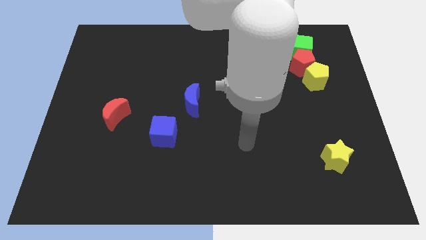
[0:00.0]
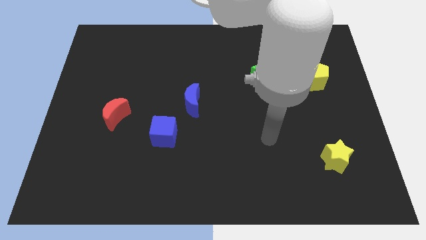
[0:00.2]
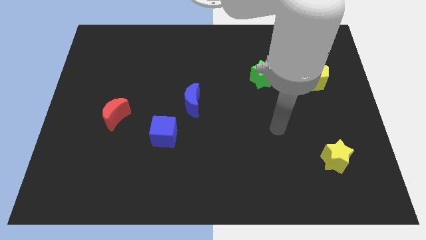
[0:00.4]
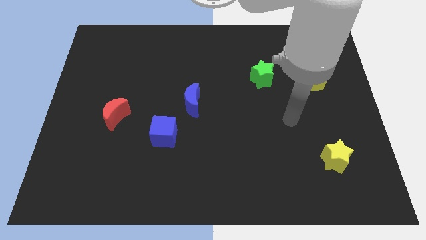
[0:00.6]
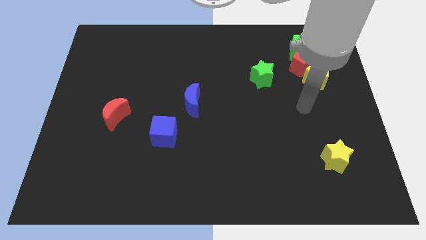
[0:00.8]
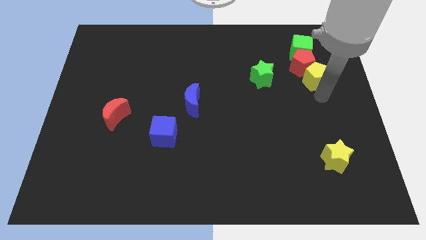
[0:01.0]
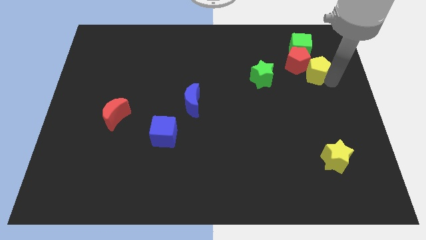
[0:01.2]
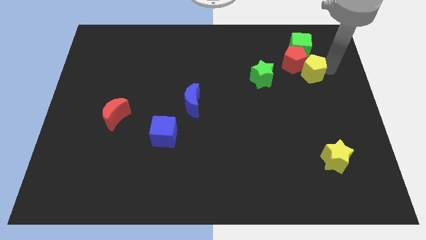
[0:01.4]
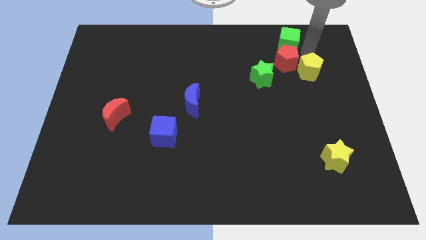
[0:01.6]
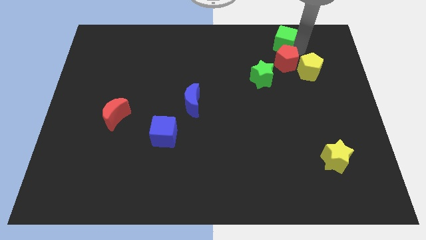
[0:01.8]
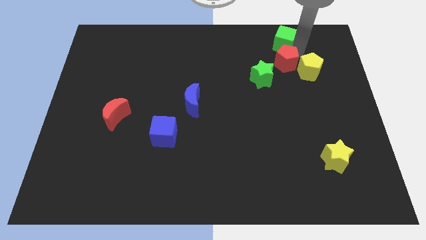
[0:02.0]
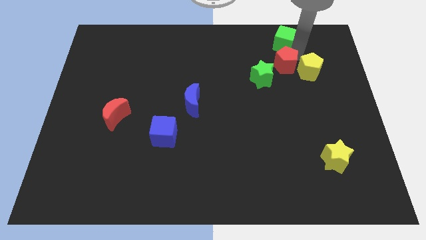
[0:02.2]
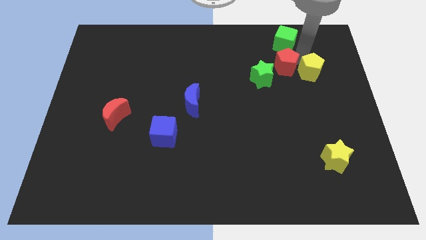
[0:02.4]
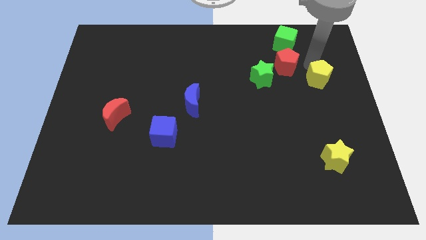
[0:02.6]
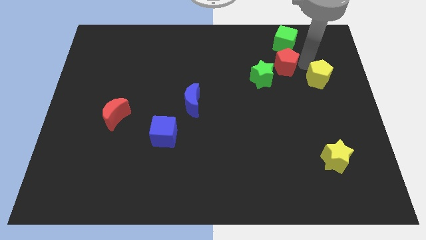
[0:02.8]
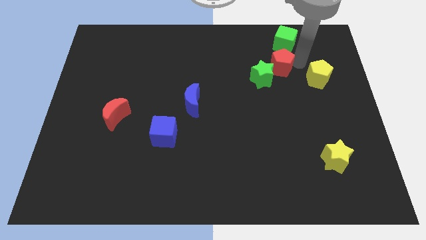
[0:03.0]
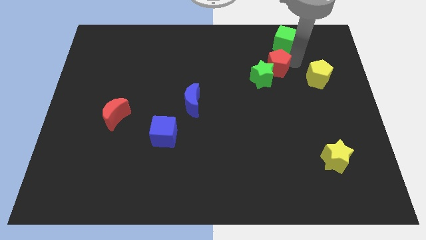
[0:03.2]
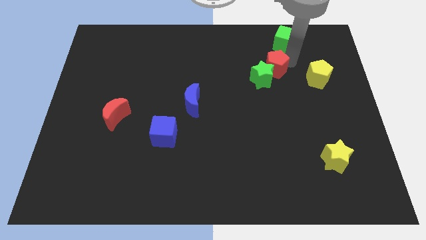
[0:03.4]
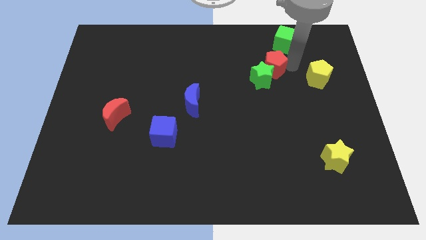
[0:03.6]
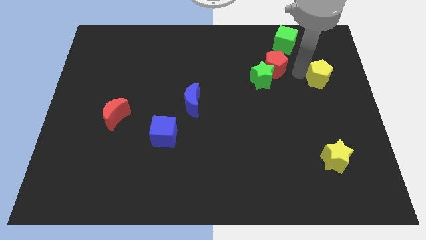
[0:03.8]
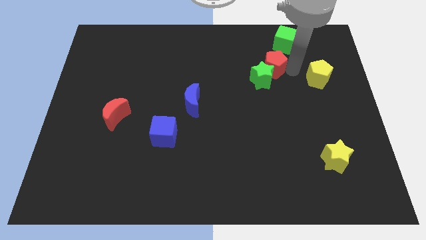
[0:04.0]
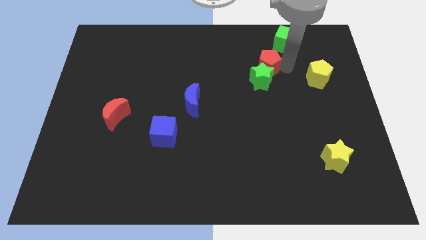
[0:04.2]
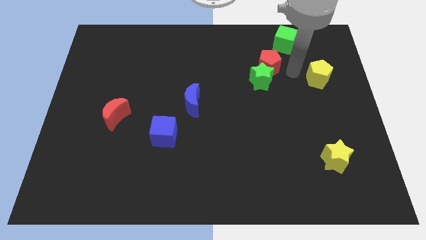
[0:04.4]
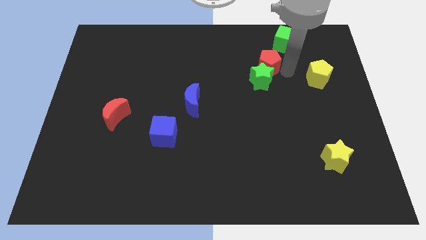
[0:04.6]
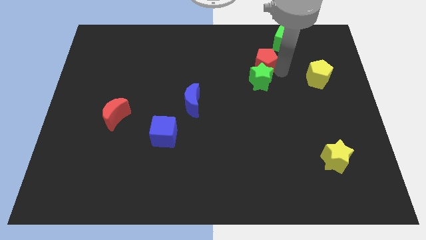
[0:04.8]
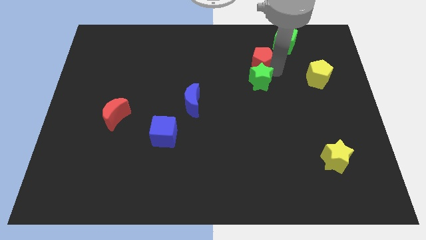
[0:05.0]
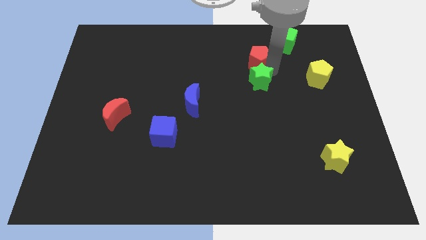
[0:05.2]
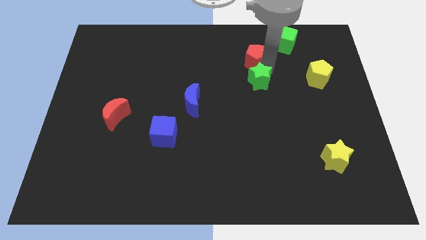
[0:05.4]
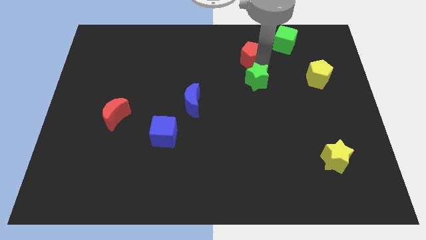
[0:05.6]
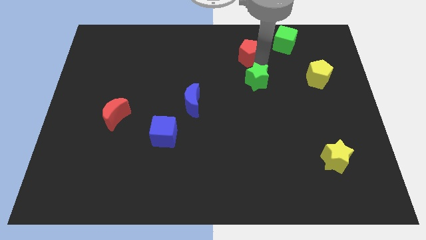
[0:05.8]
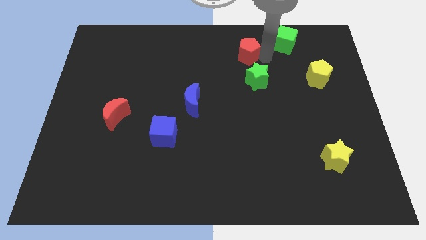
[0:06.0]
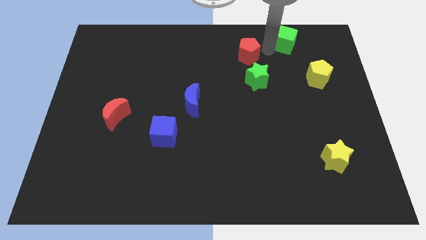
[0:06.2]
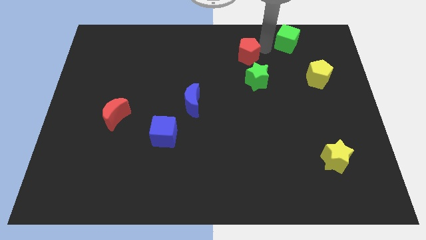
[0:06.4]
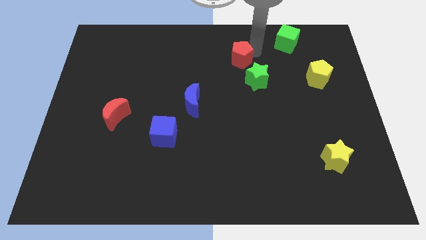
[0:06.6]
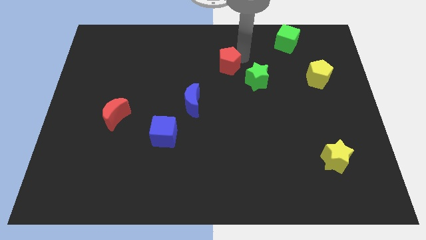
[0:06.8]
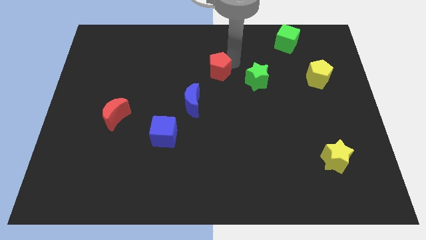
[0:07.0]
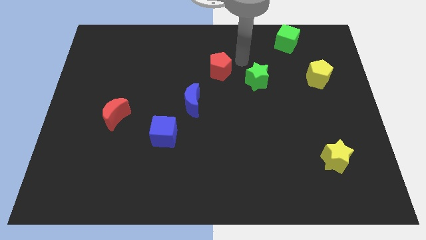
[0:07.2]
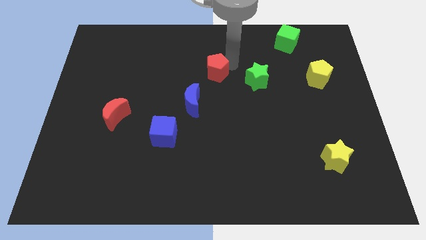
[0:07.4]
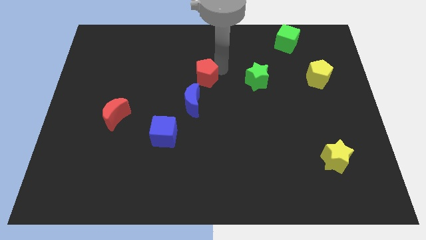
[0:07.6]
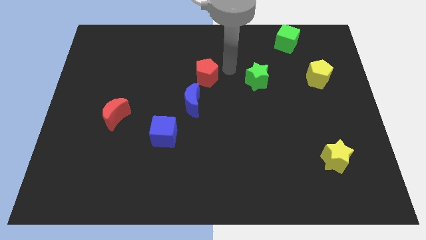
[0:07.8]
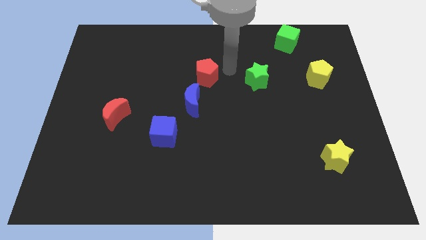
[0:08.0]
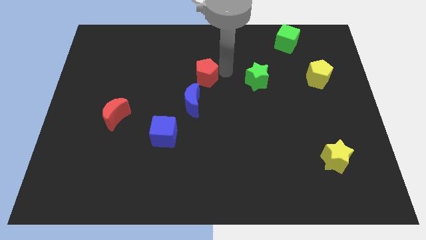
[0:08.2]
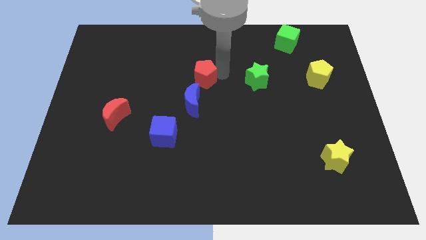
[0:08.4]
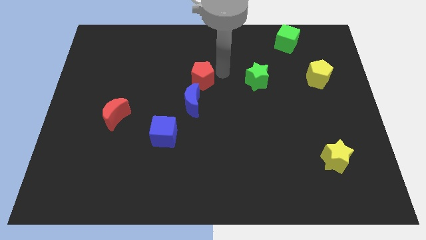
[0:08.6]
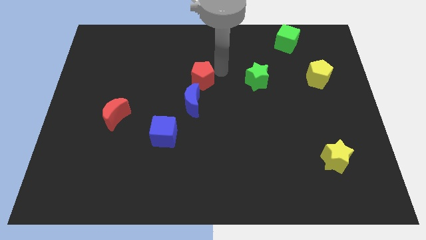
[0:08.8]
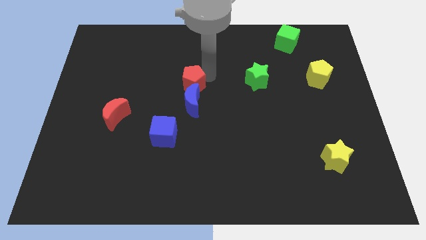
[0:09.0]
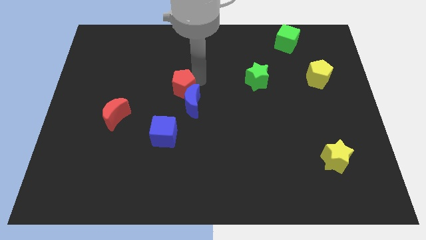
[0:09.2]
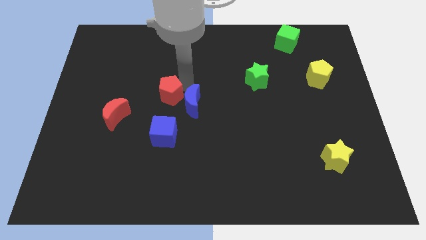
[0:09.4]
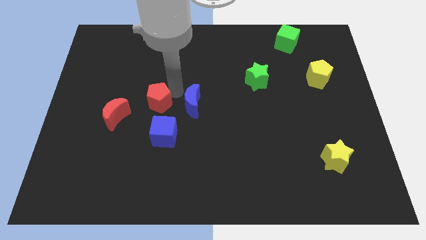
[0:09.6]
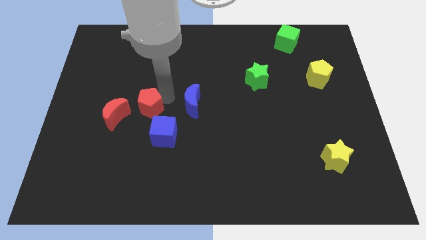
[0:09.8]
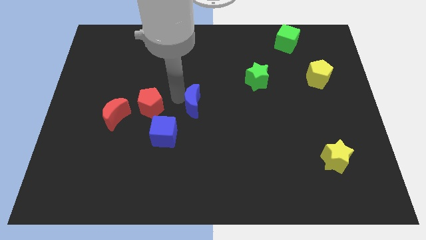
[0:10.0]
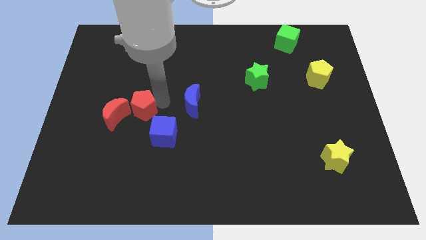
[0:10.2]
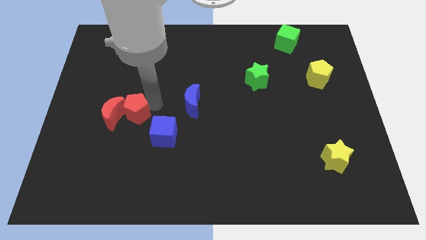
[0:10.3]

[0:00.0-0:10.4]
move the red pentagon close to the red moon

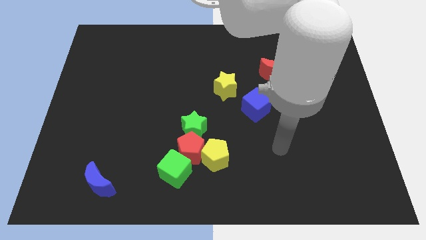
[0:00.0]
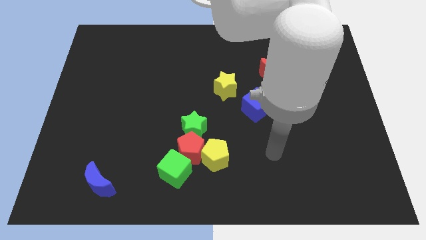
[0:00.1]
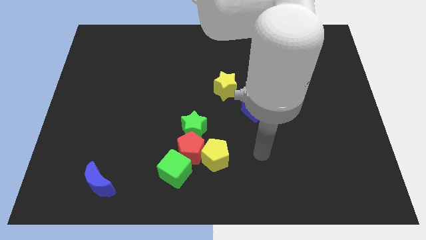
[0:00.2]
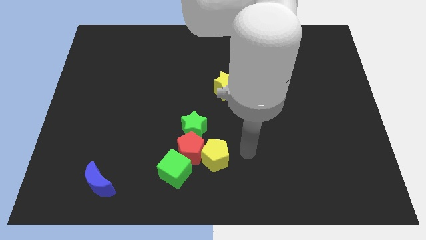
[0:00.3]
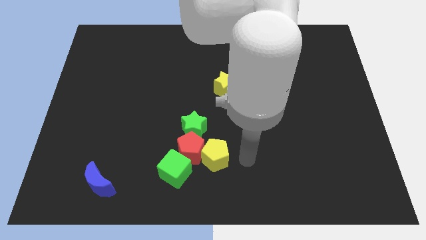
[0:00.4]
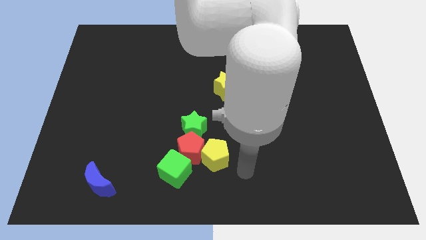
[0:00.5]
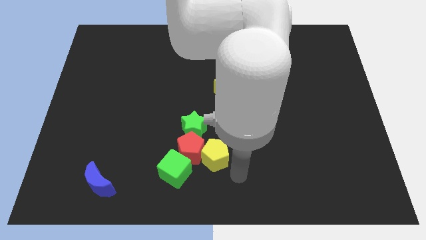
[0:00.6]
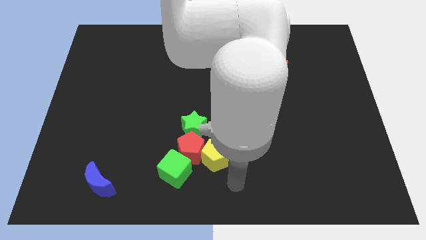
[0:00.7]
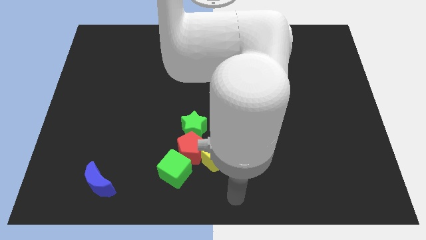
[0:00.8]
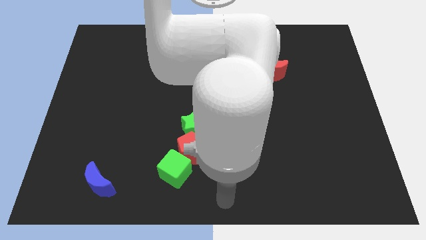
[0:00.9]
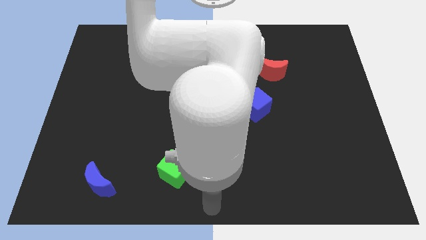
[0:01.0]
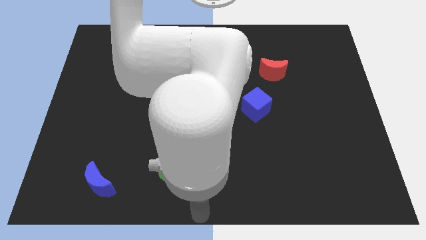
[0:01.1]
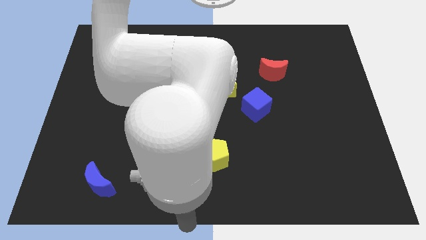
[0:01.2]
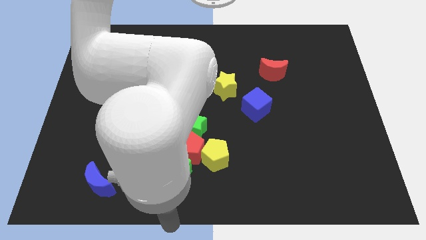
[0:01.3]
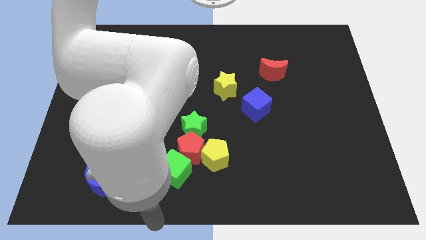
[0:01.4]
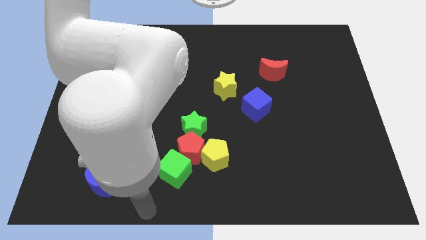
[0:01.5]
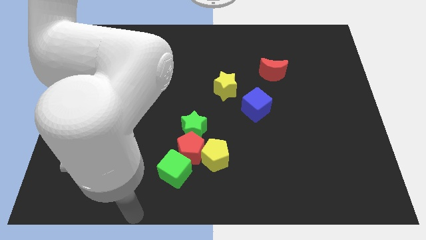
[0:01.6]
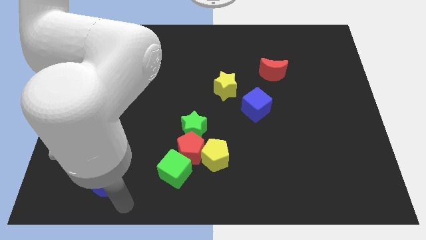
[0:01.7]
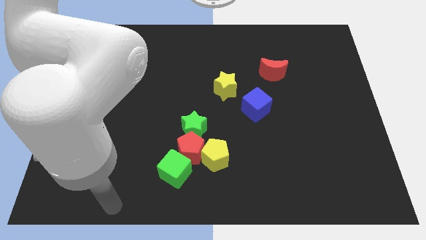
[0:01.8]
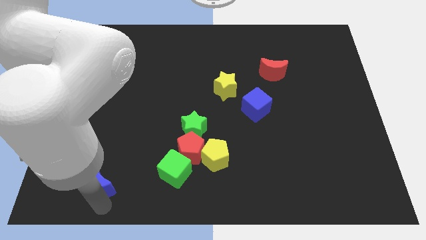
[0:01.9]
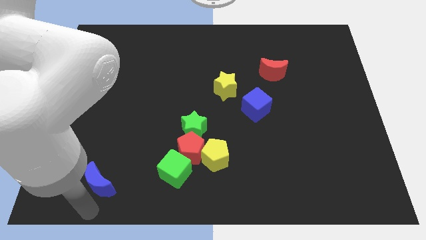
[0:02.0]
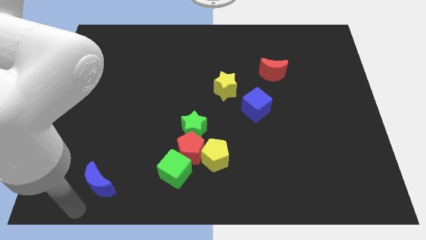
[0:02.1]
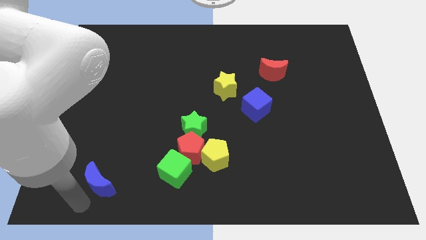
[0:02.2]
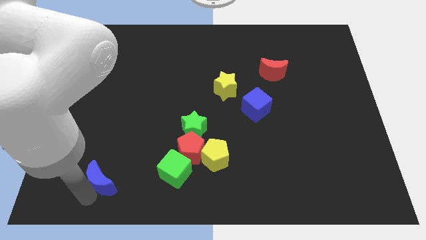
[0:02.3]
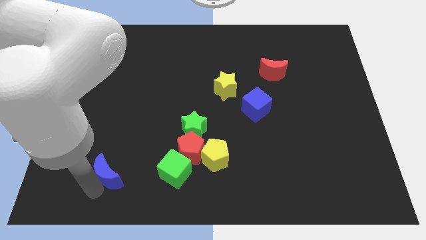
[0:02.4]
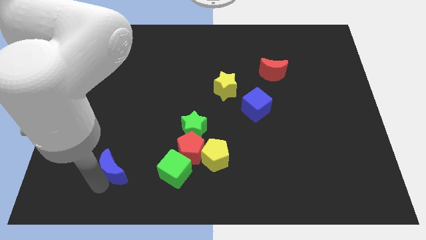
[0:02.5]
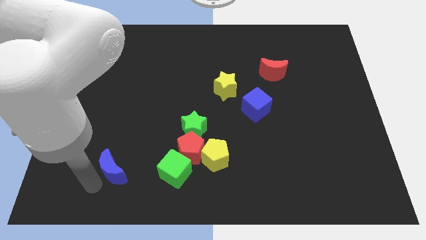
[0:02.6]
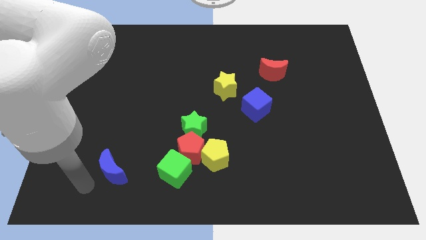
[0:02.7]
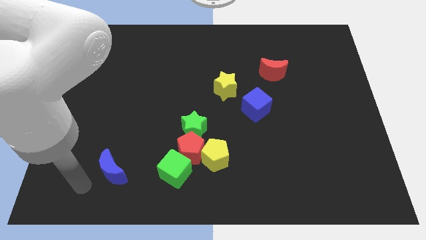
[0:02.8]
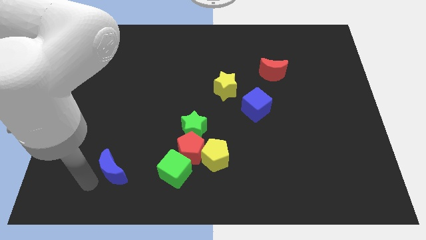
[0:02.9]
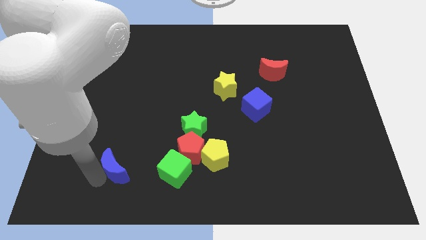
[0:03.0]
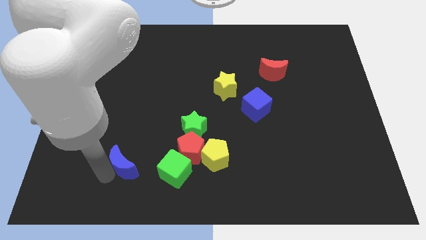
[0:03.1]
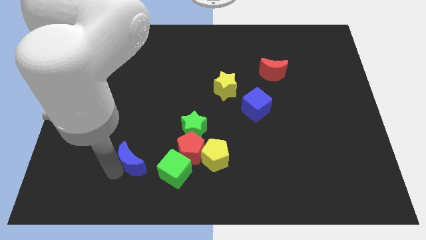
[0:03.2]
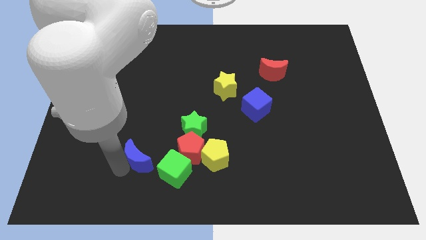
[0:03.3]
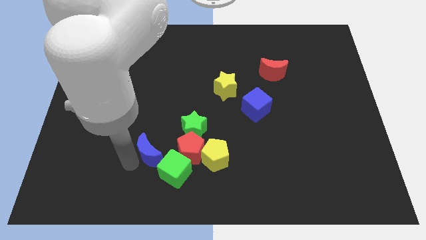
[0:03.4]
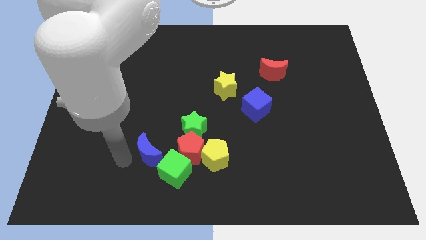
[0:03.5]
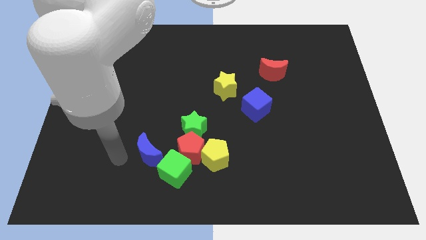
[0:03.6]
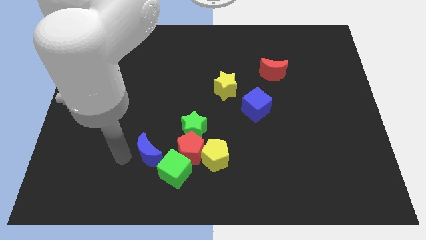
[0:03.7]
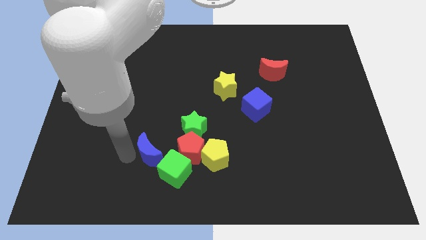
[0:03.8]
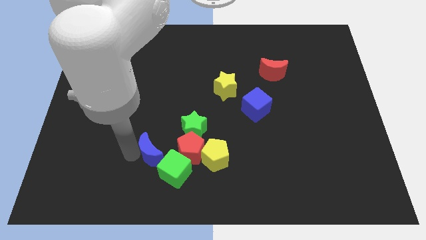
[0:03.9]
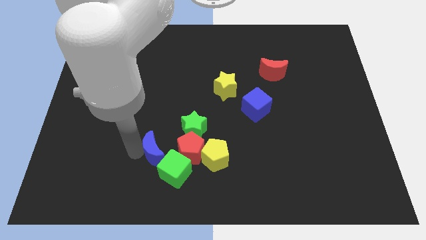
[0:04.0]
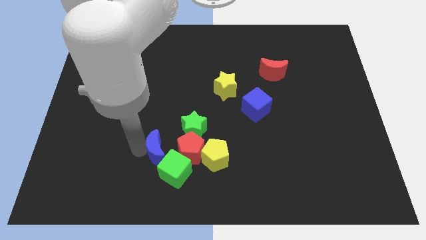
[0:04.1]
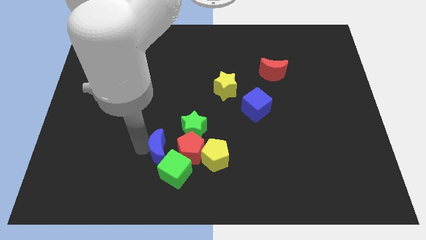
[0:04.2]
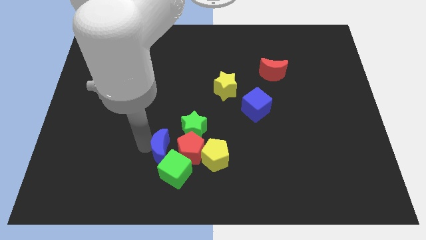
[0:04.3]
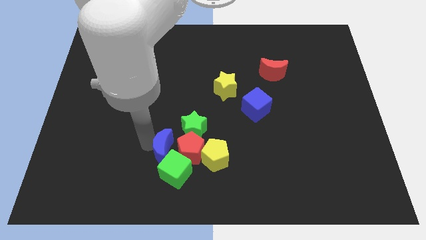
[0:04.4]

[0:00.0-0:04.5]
slide the blue moon to the red pentagon
